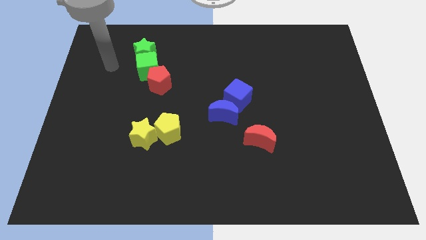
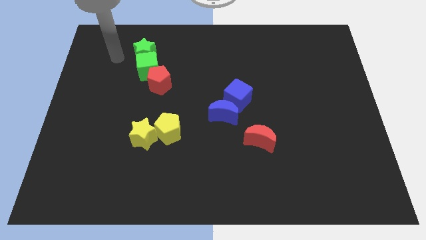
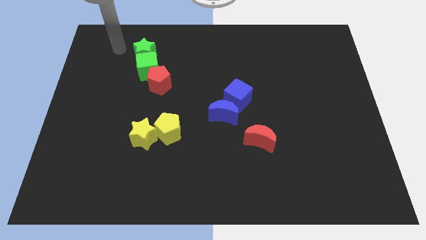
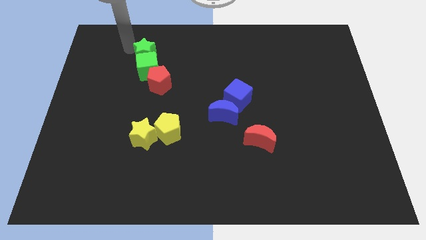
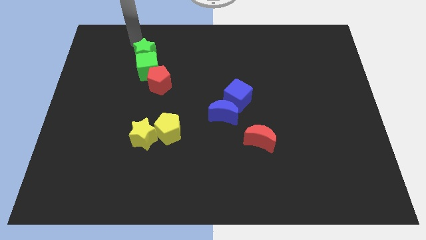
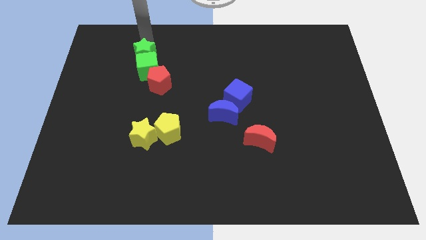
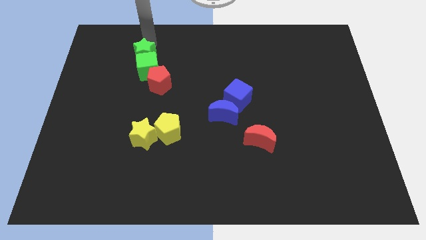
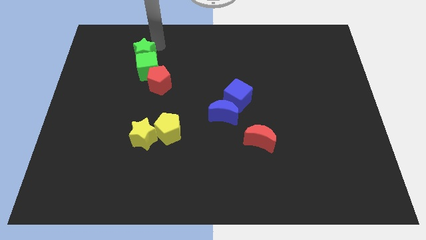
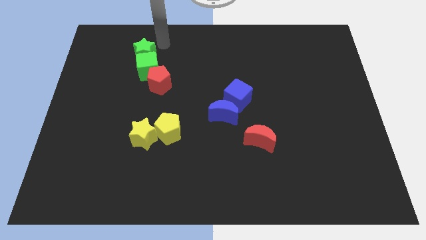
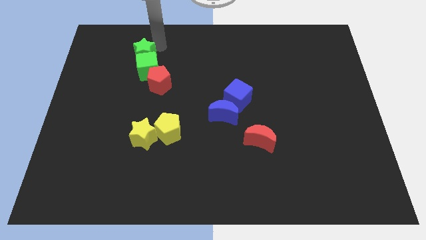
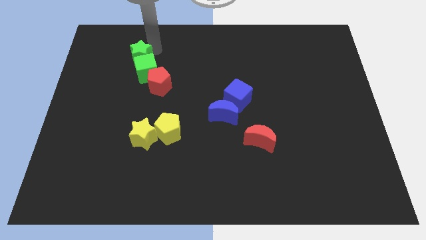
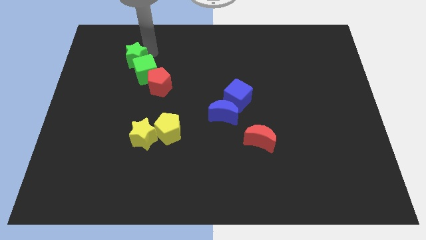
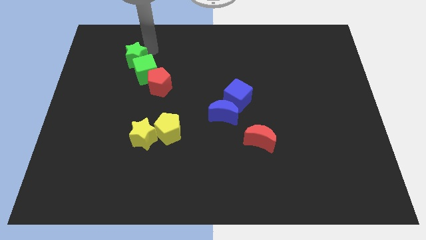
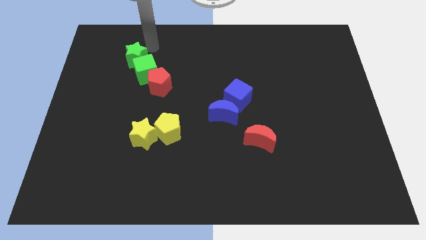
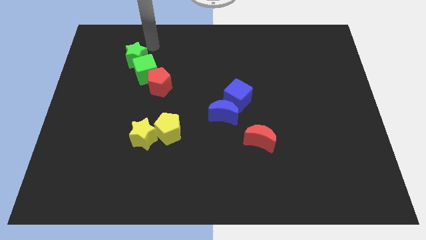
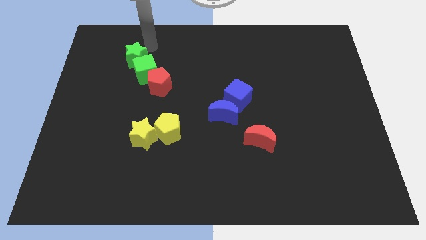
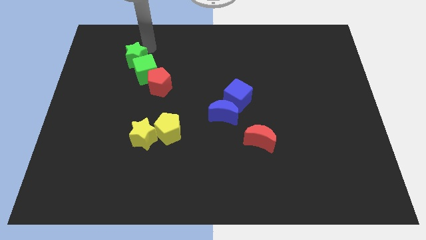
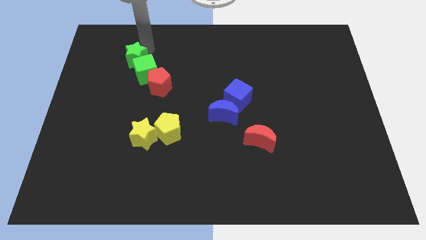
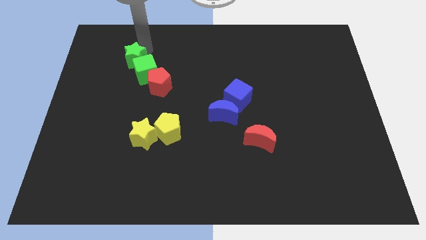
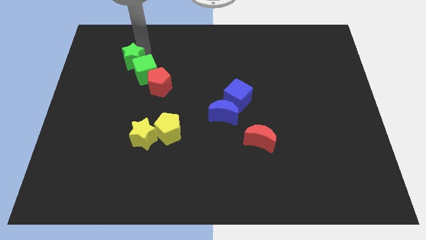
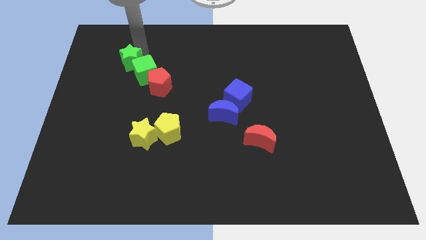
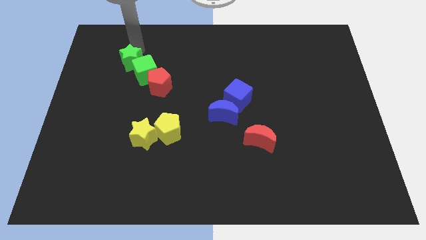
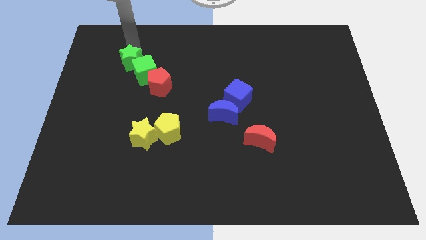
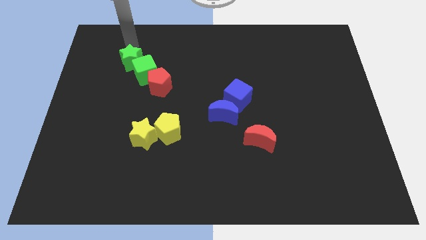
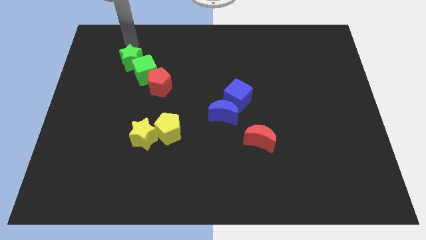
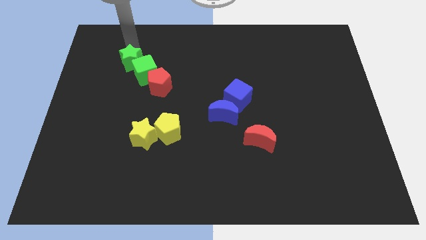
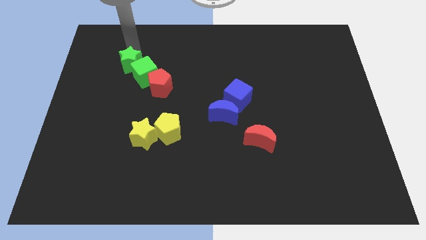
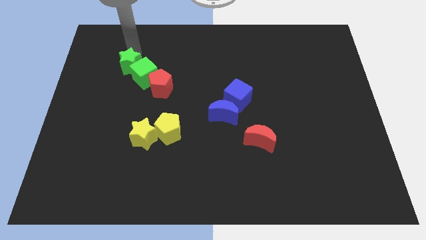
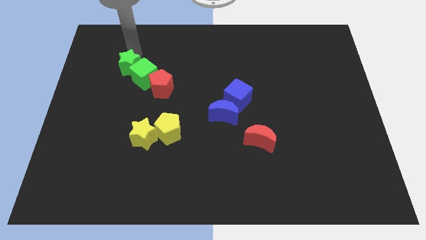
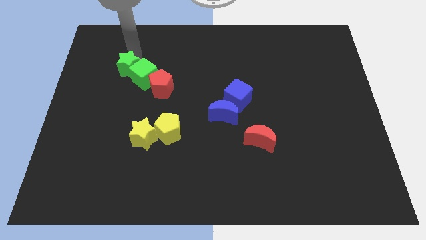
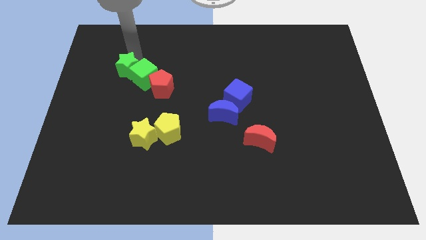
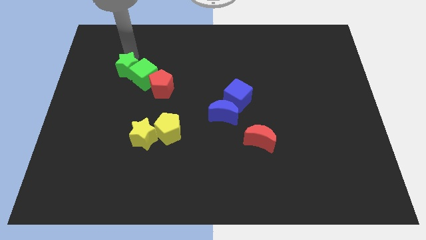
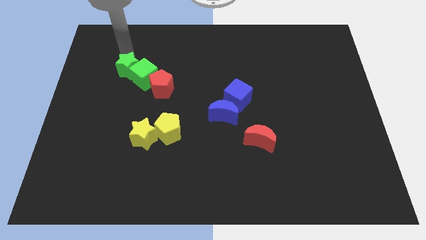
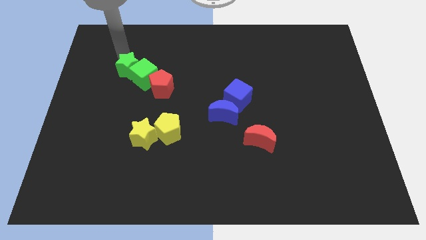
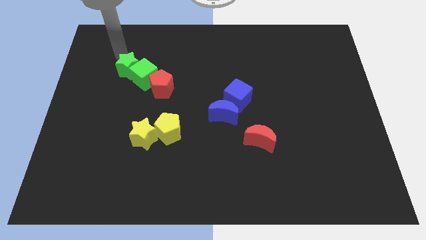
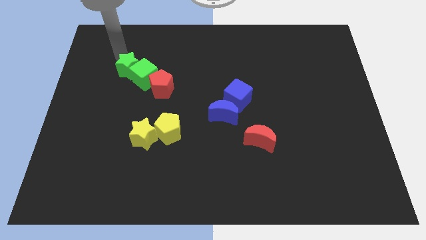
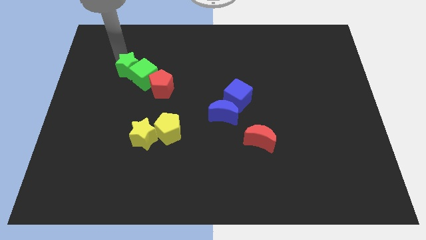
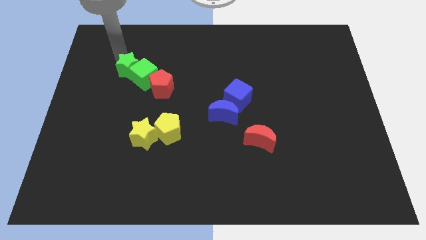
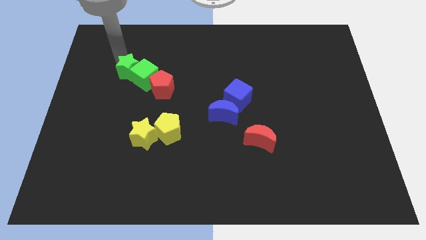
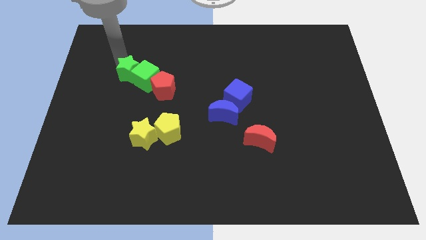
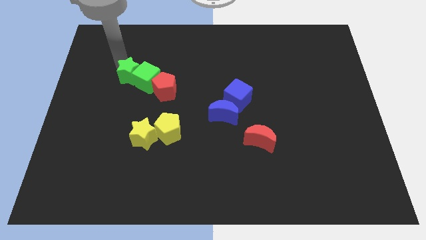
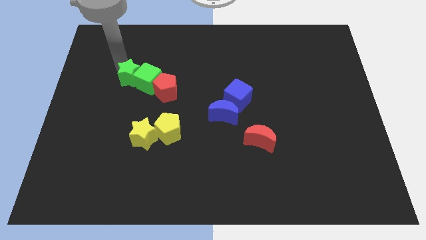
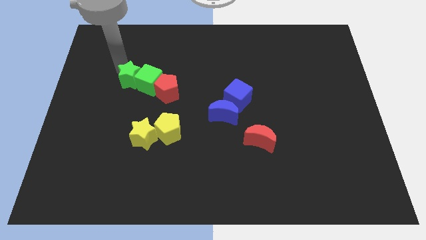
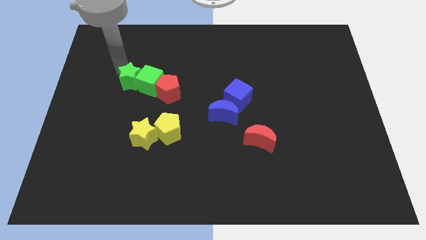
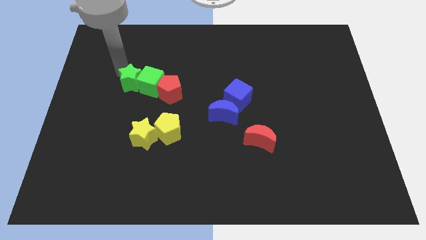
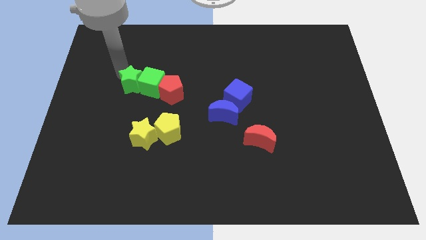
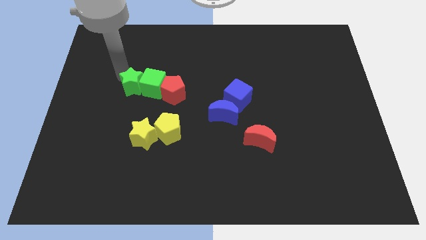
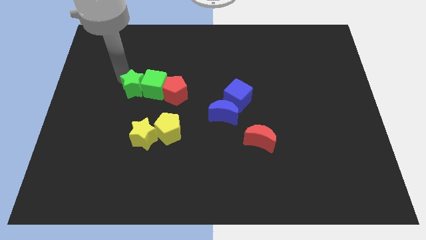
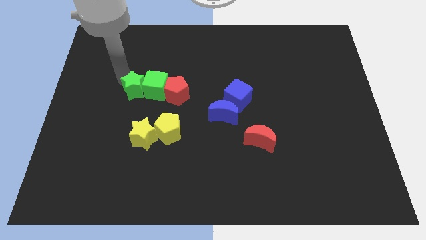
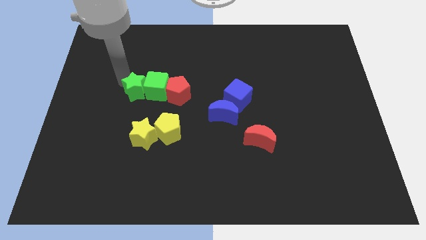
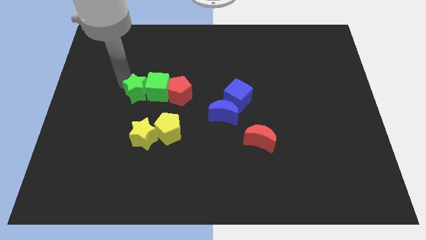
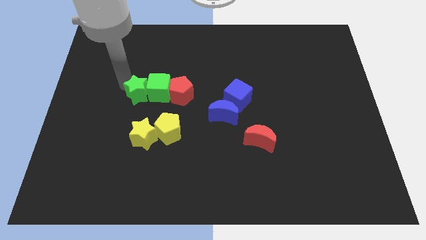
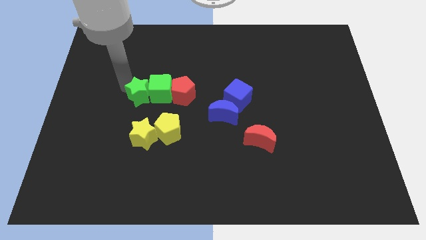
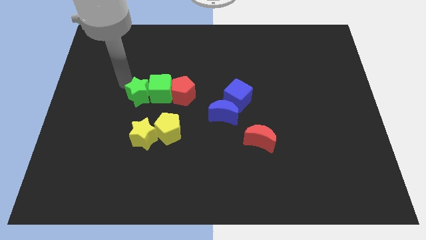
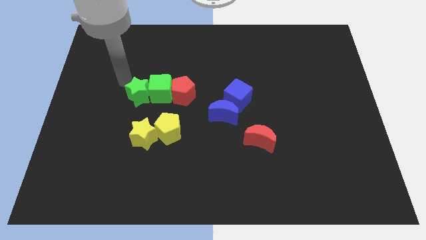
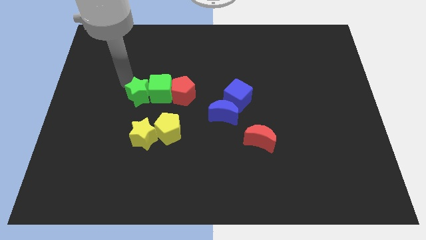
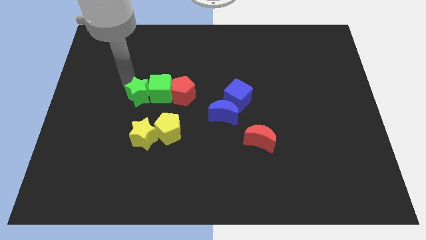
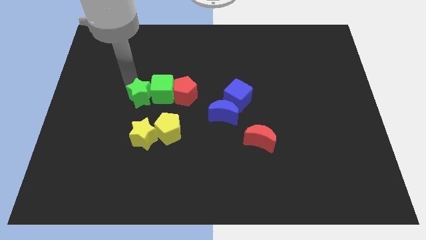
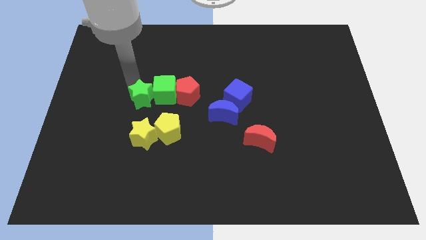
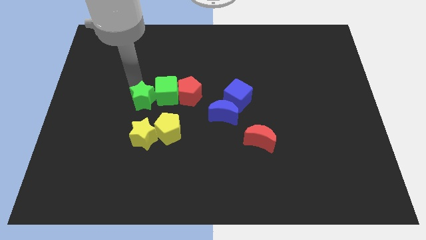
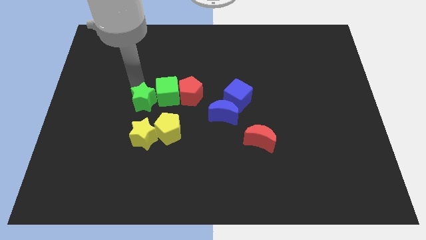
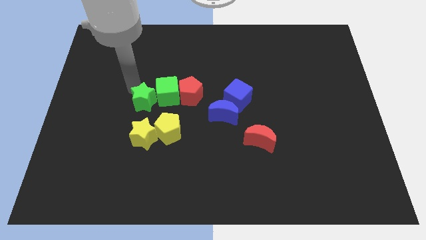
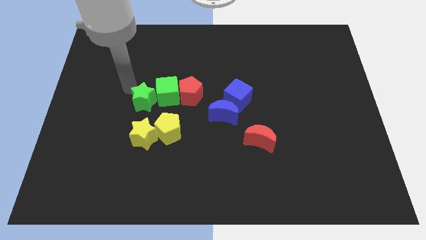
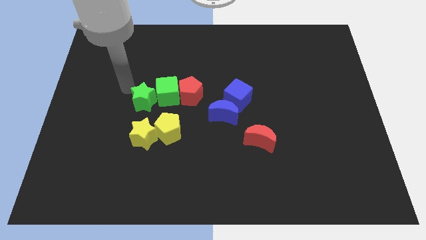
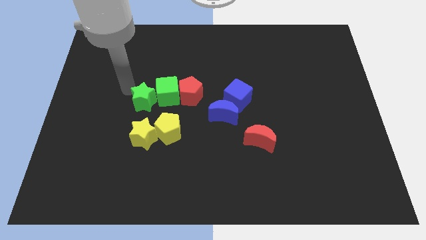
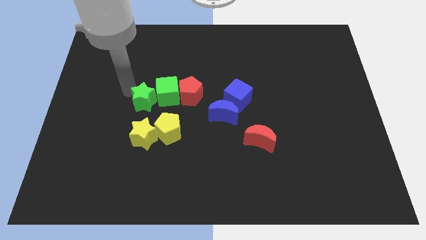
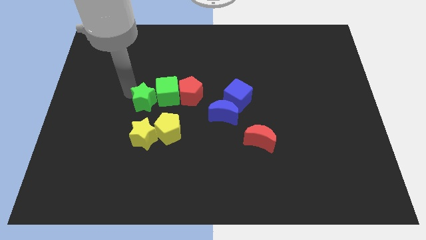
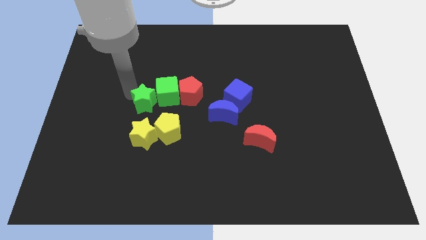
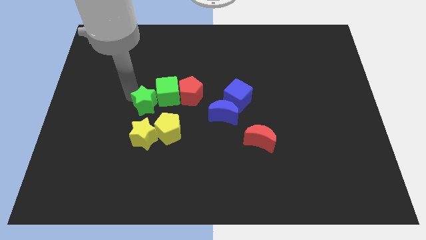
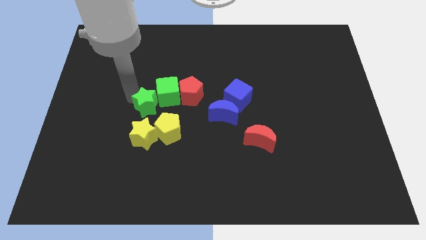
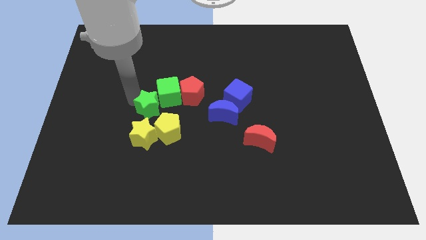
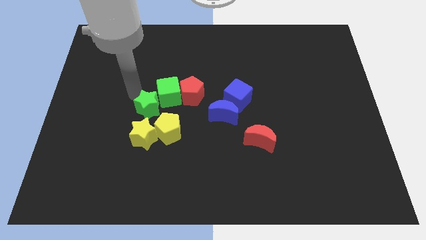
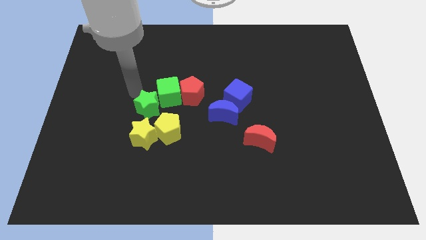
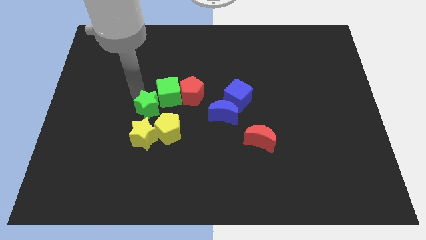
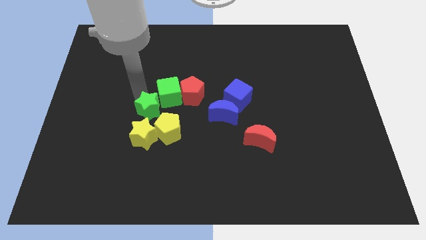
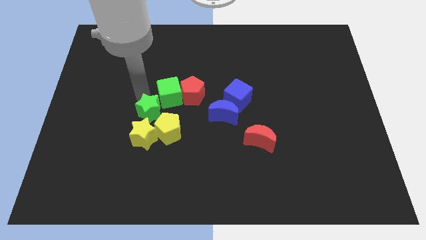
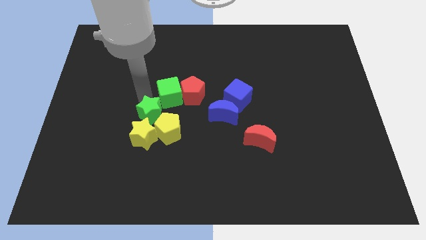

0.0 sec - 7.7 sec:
slide the green star to the yellow pentagon
